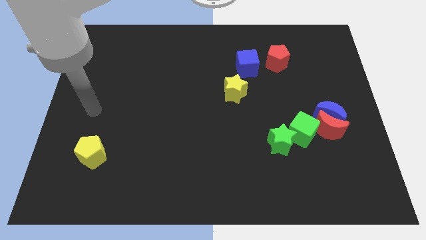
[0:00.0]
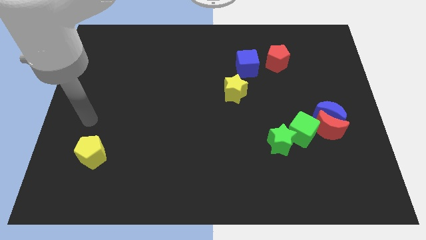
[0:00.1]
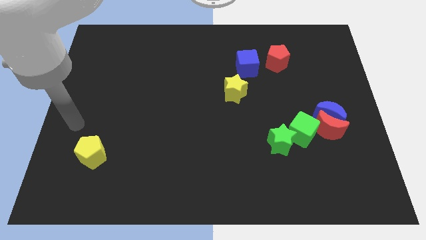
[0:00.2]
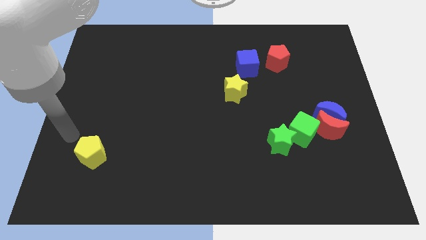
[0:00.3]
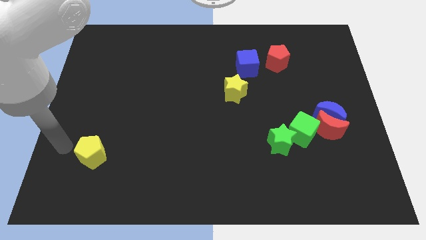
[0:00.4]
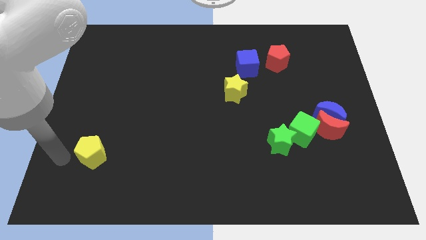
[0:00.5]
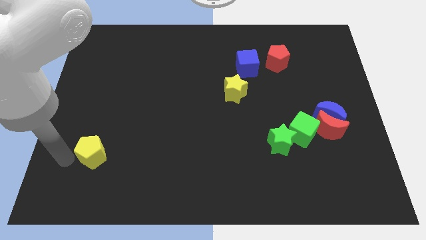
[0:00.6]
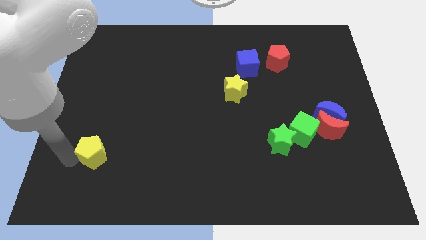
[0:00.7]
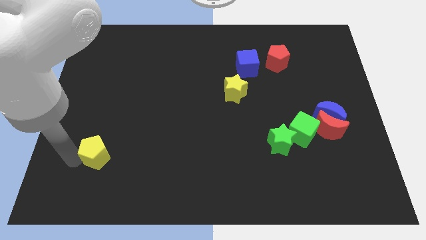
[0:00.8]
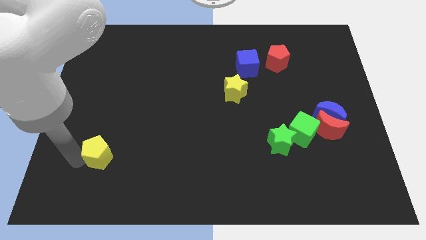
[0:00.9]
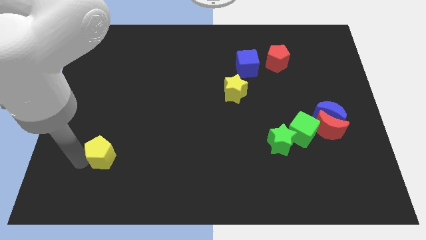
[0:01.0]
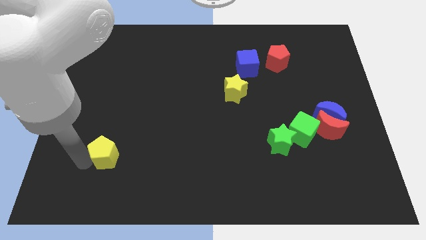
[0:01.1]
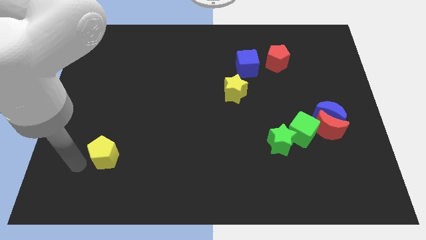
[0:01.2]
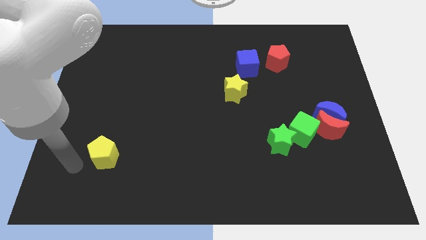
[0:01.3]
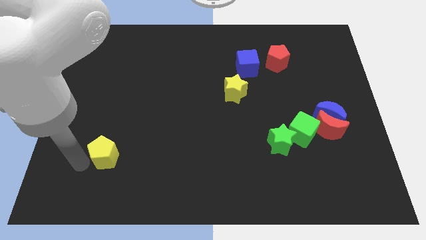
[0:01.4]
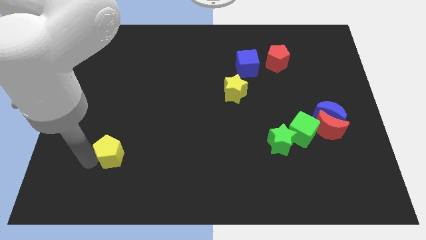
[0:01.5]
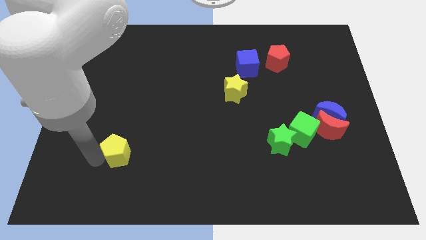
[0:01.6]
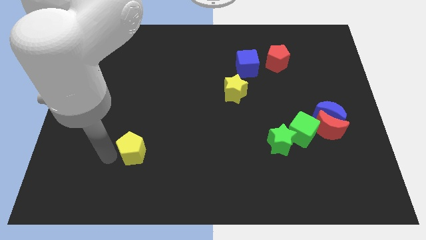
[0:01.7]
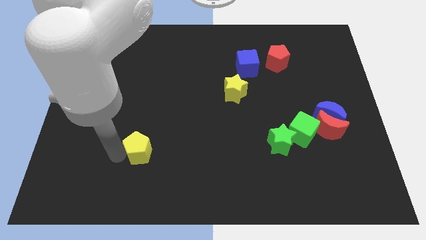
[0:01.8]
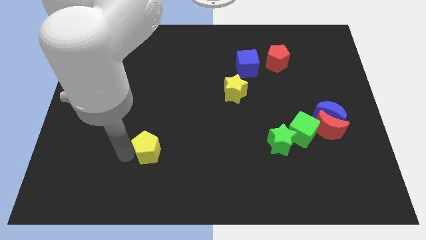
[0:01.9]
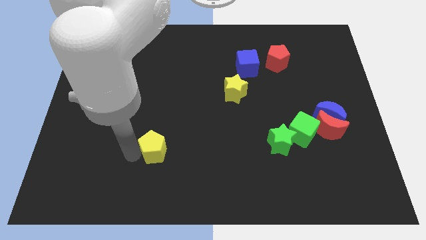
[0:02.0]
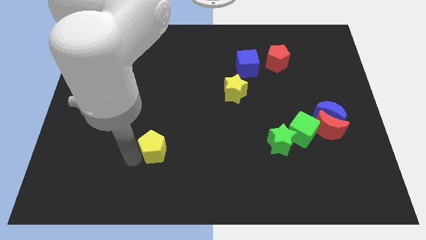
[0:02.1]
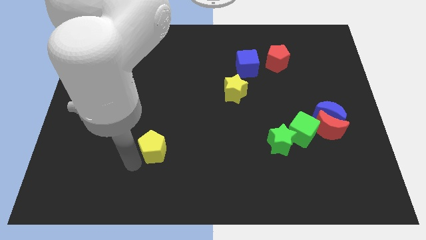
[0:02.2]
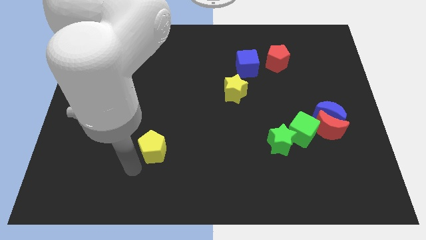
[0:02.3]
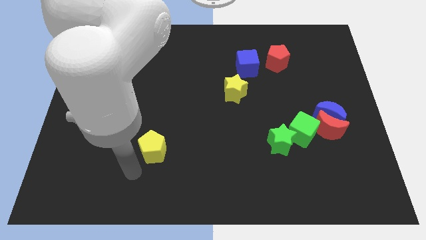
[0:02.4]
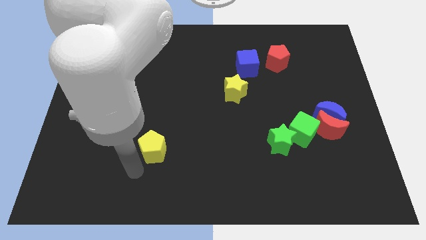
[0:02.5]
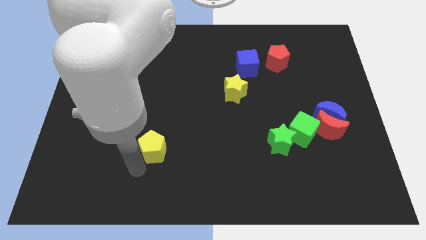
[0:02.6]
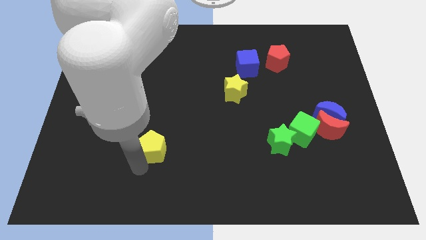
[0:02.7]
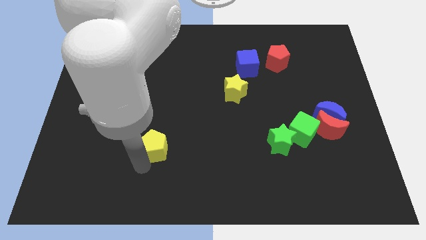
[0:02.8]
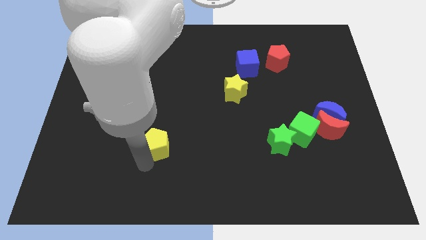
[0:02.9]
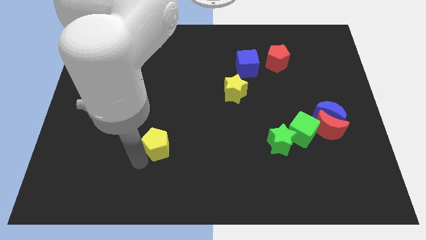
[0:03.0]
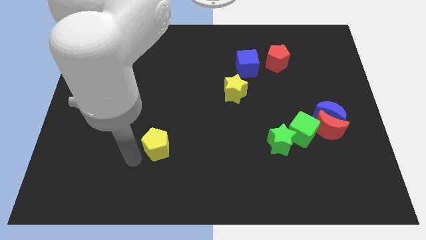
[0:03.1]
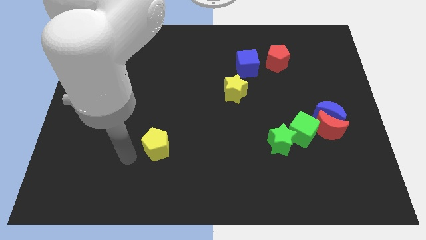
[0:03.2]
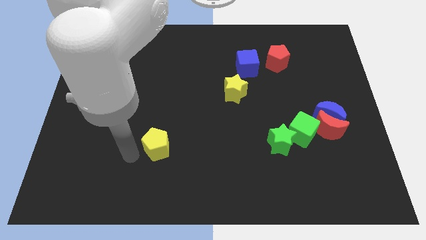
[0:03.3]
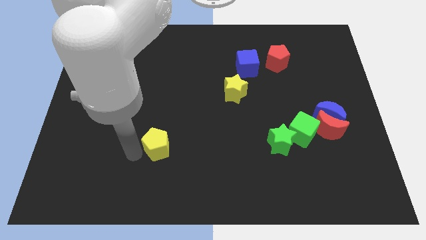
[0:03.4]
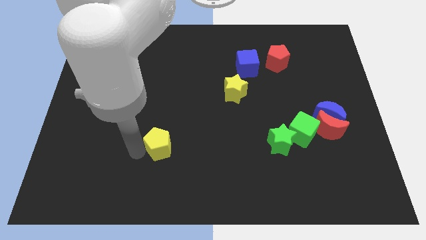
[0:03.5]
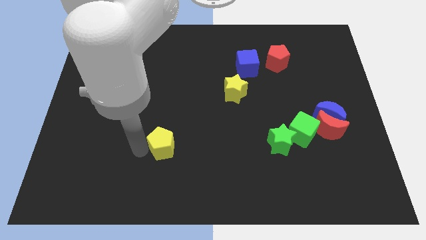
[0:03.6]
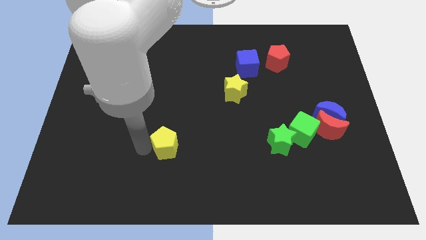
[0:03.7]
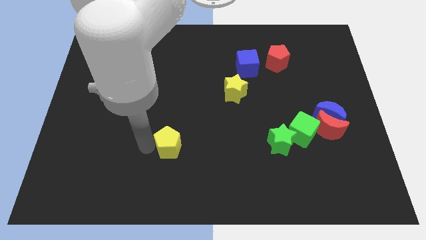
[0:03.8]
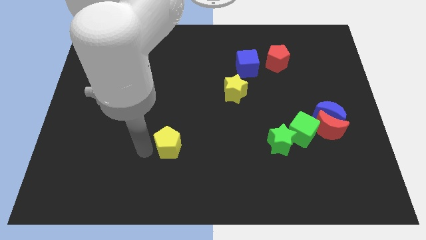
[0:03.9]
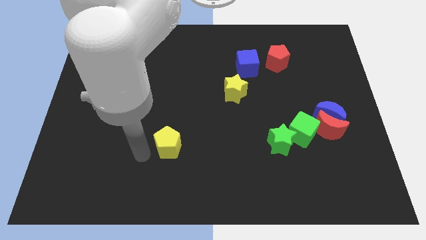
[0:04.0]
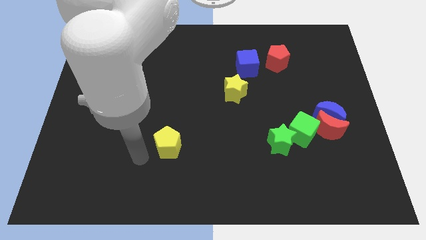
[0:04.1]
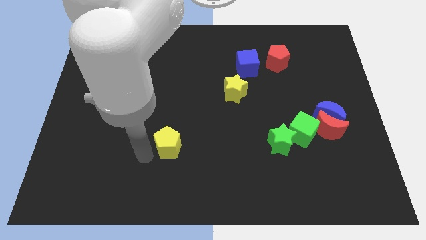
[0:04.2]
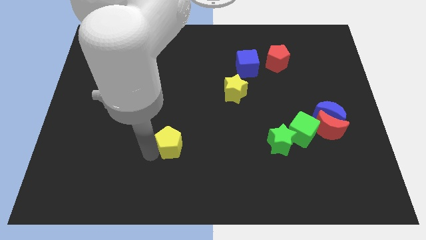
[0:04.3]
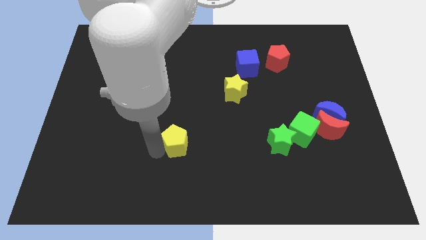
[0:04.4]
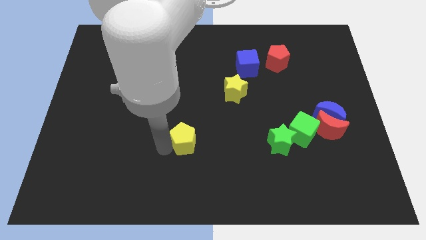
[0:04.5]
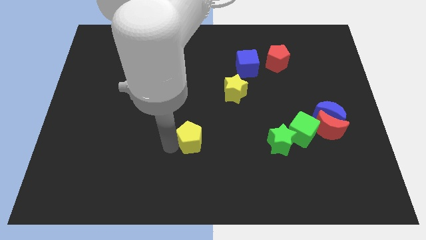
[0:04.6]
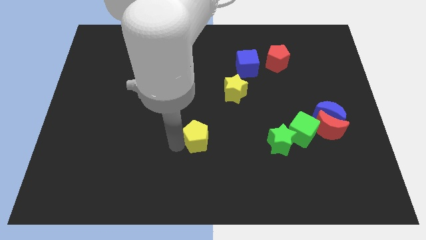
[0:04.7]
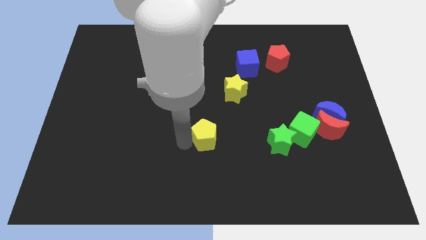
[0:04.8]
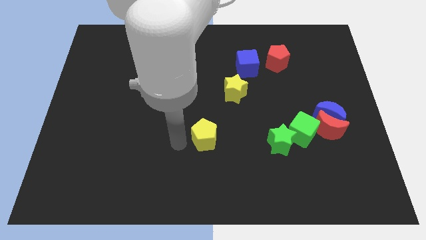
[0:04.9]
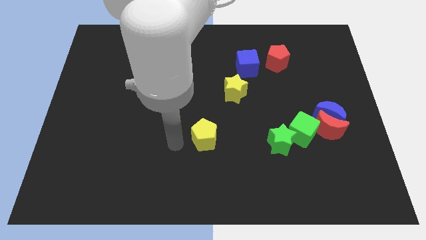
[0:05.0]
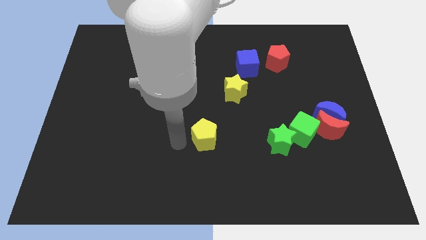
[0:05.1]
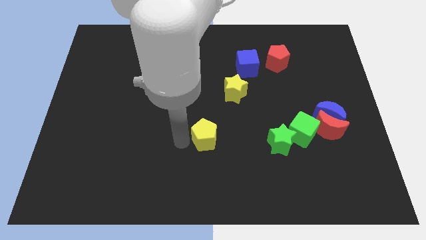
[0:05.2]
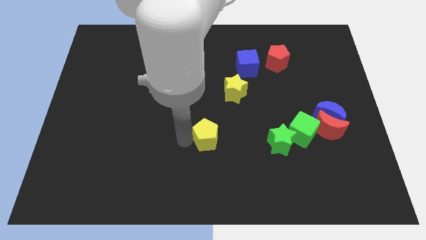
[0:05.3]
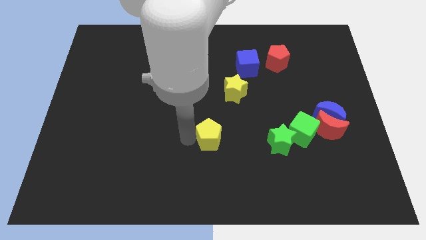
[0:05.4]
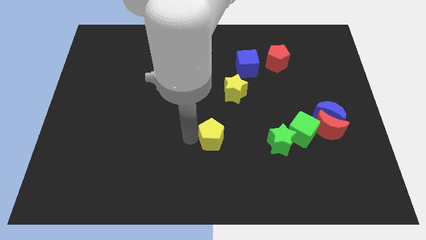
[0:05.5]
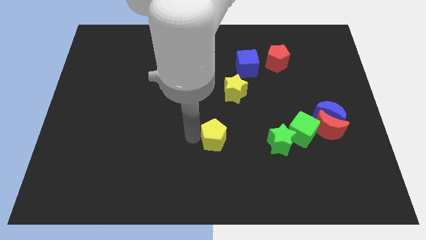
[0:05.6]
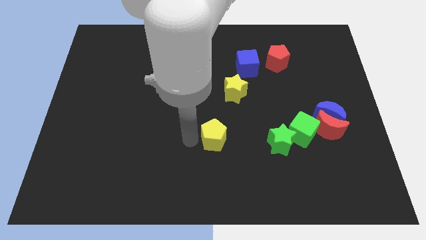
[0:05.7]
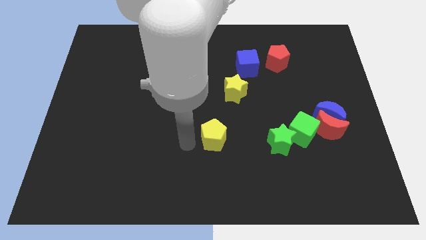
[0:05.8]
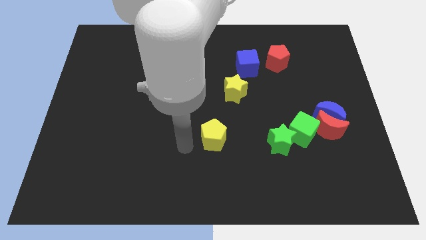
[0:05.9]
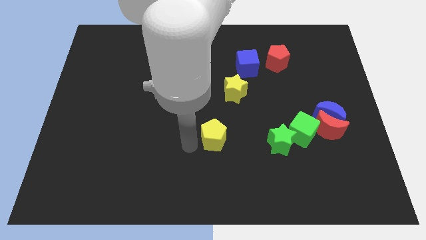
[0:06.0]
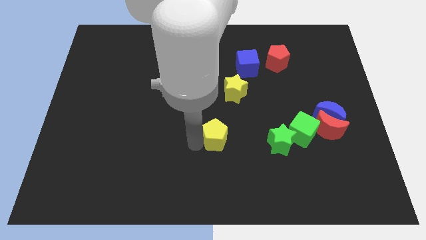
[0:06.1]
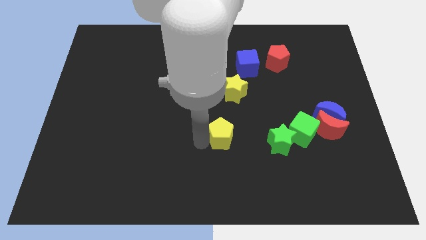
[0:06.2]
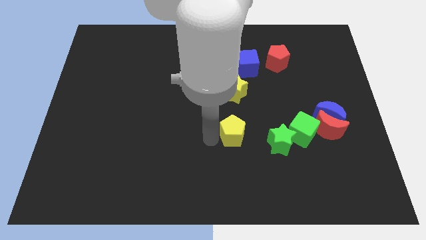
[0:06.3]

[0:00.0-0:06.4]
put the yellow pentagon to the left side of the green cube

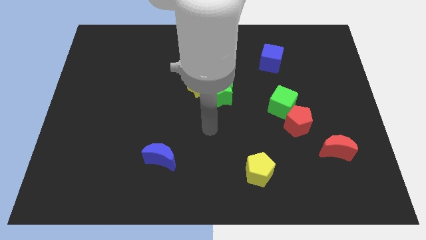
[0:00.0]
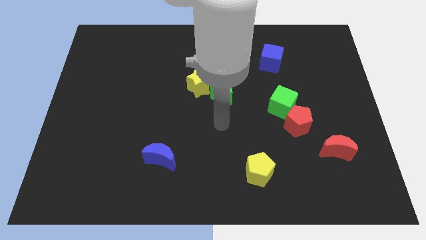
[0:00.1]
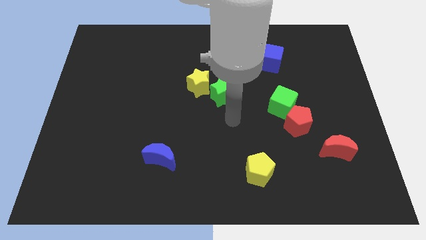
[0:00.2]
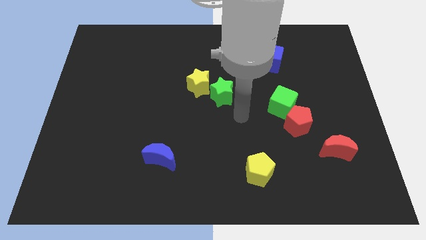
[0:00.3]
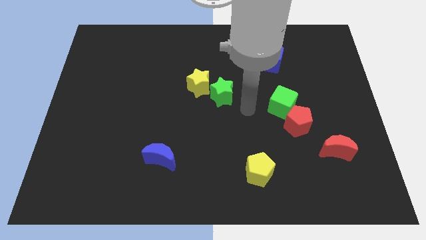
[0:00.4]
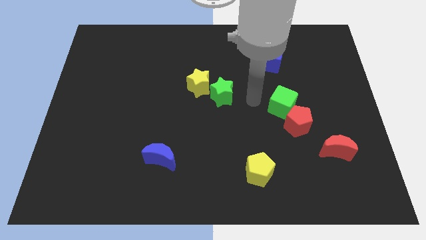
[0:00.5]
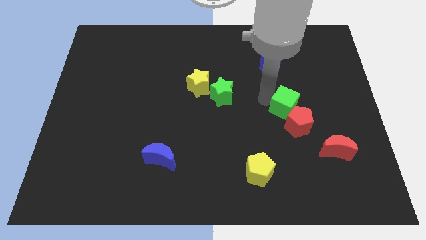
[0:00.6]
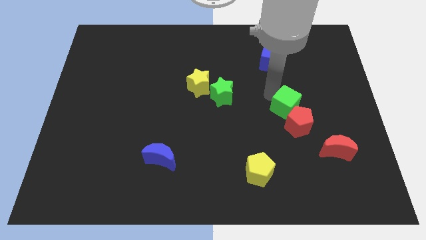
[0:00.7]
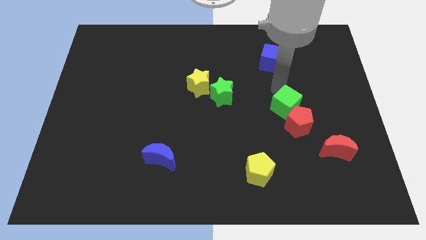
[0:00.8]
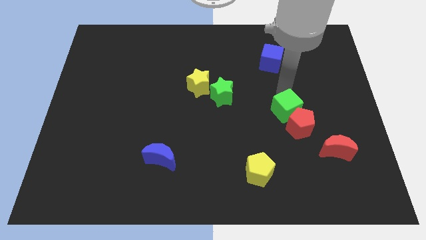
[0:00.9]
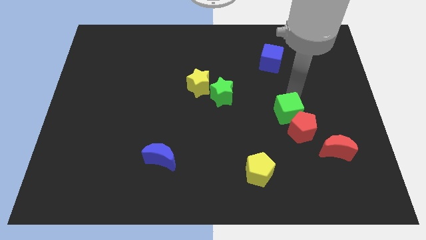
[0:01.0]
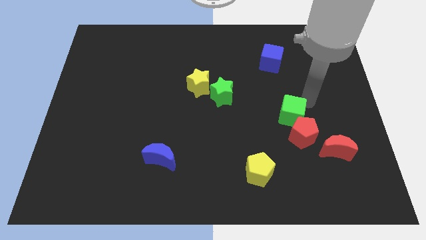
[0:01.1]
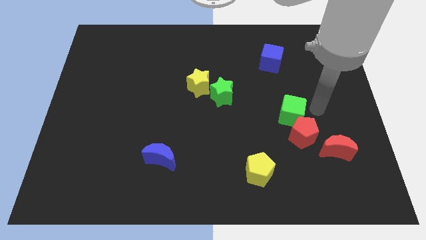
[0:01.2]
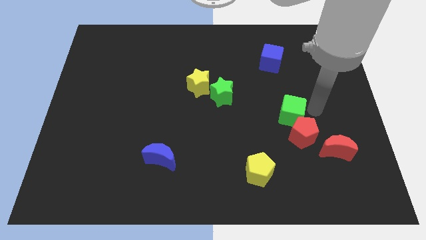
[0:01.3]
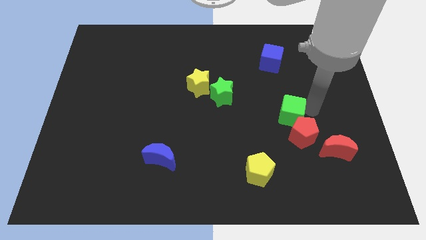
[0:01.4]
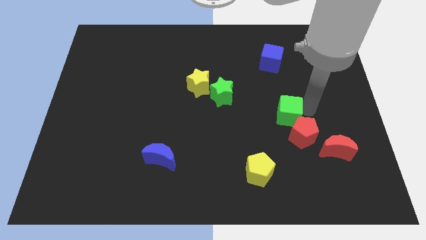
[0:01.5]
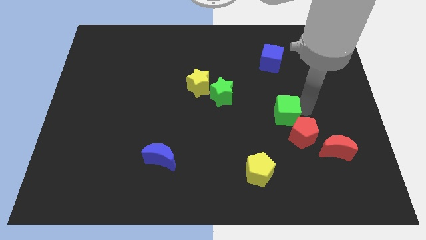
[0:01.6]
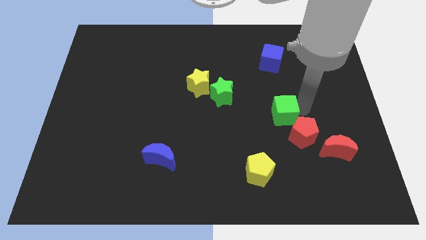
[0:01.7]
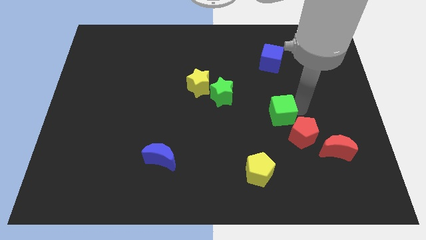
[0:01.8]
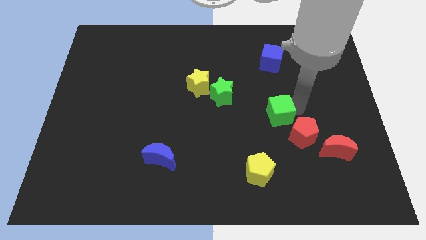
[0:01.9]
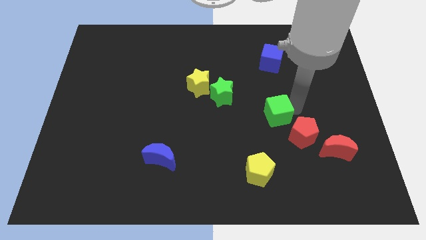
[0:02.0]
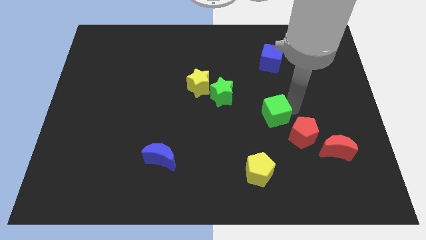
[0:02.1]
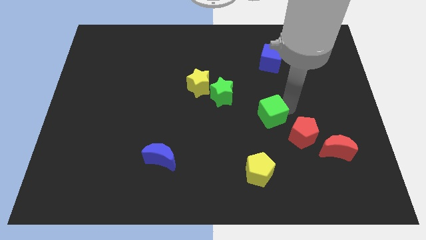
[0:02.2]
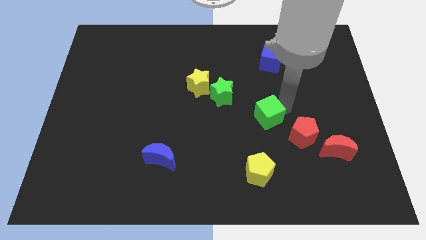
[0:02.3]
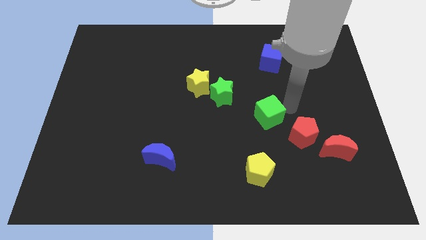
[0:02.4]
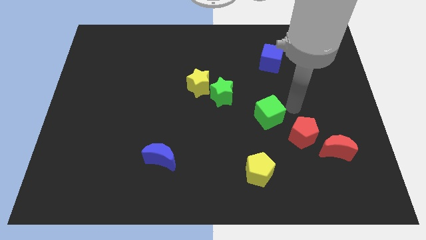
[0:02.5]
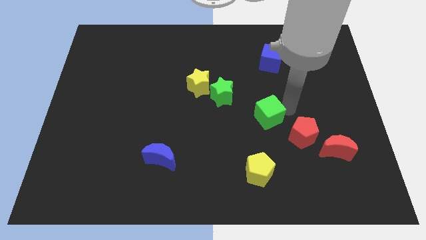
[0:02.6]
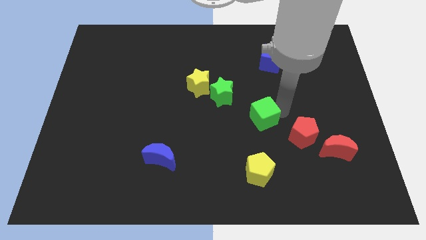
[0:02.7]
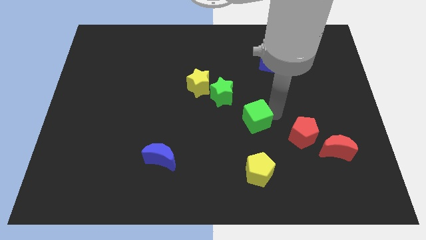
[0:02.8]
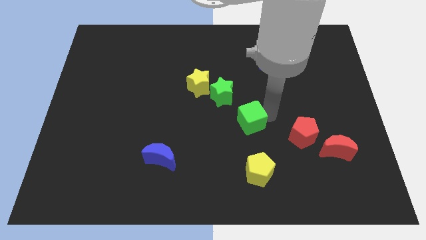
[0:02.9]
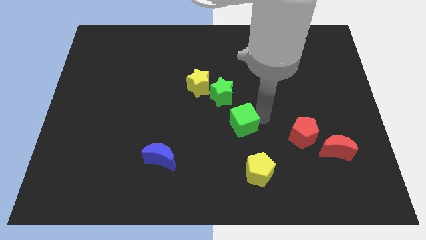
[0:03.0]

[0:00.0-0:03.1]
push the green cube to the bottom side of the green star
